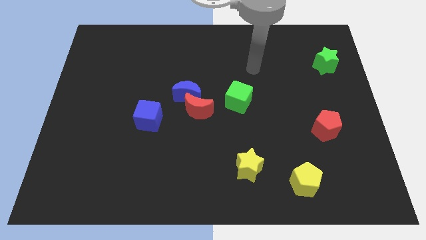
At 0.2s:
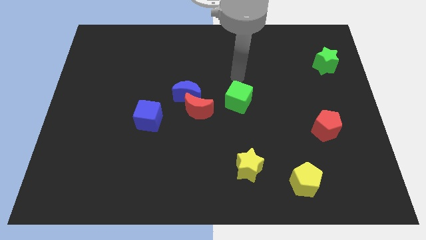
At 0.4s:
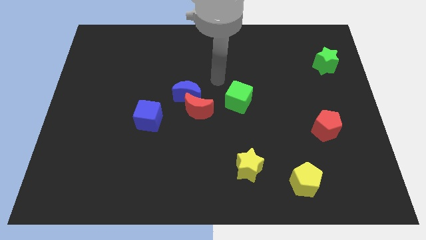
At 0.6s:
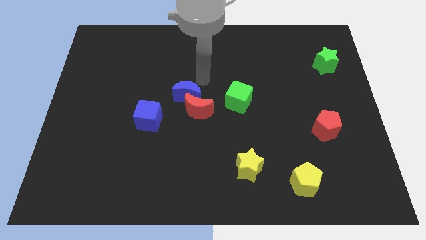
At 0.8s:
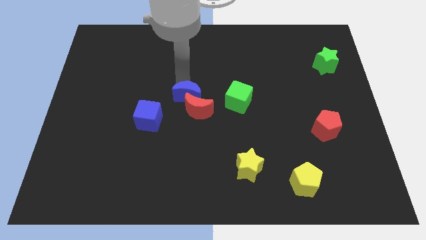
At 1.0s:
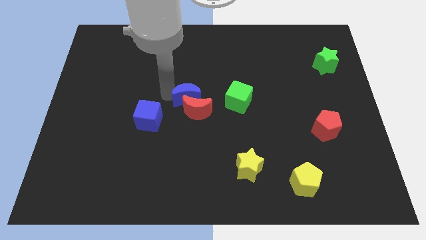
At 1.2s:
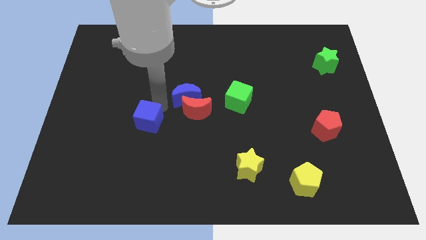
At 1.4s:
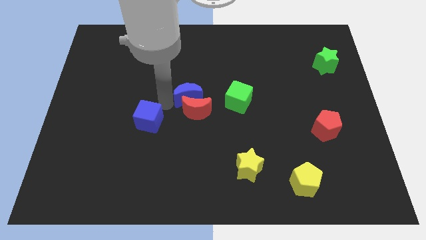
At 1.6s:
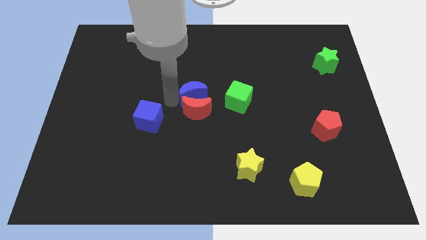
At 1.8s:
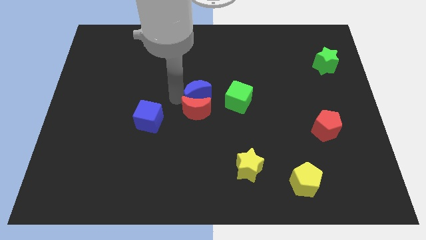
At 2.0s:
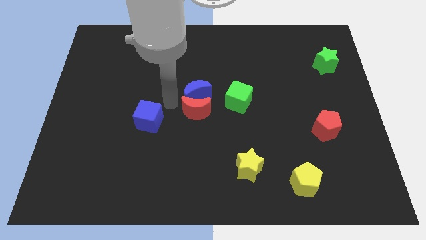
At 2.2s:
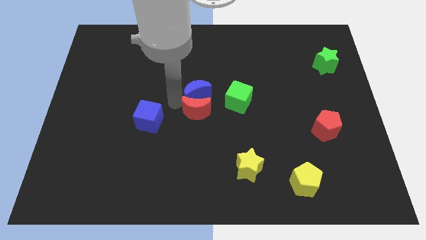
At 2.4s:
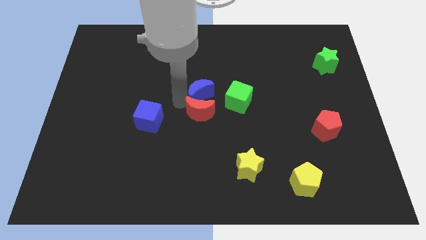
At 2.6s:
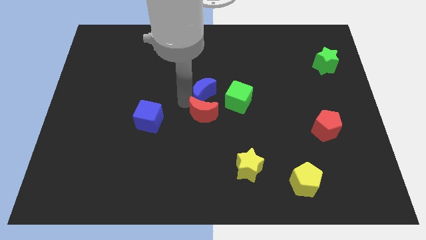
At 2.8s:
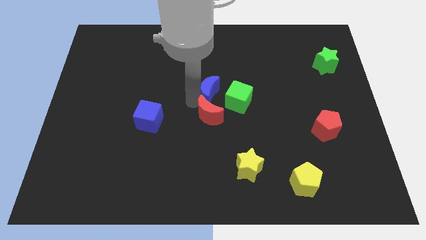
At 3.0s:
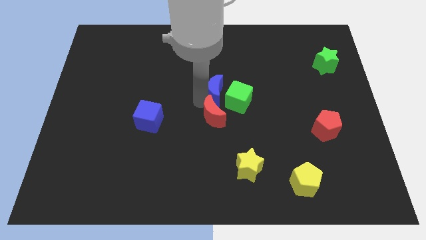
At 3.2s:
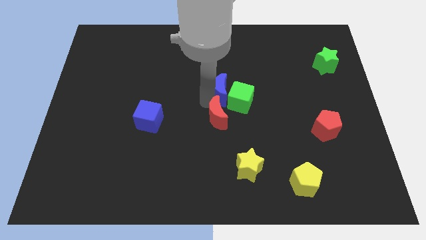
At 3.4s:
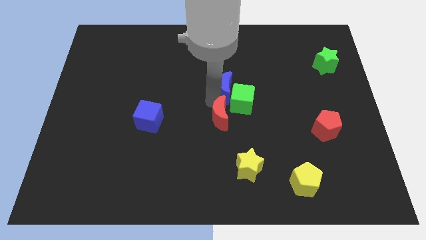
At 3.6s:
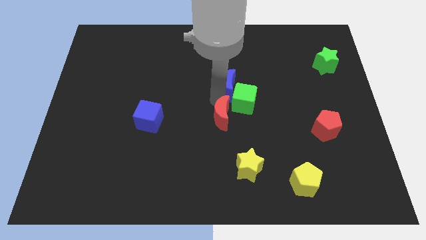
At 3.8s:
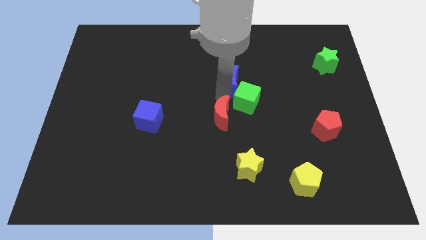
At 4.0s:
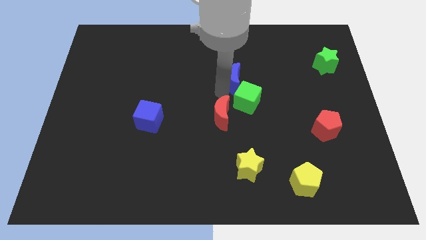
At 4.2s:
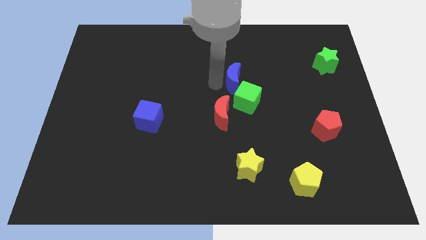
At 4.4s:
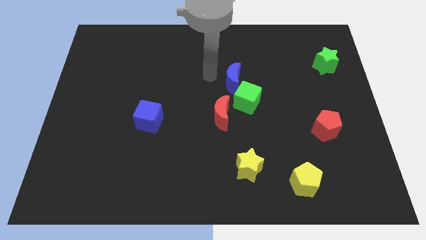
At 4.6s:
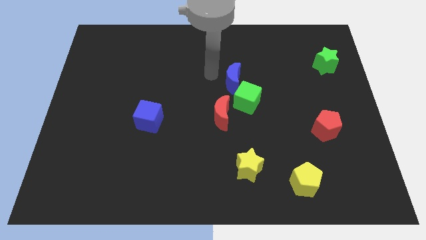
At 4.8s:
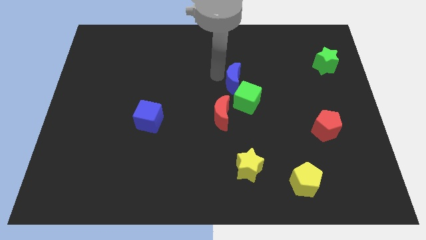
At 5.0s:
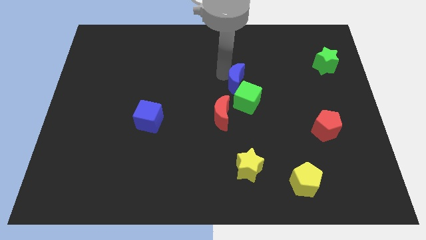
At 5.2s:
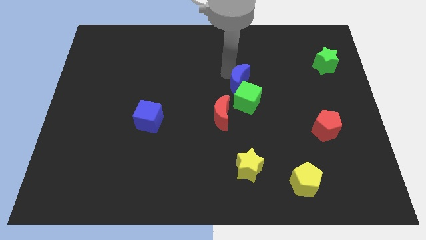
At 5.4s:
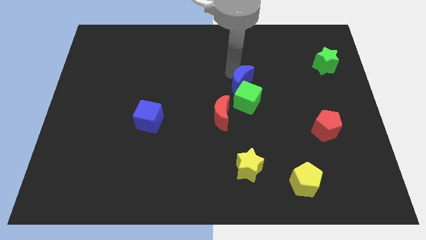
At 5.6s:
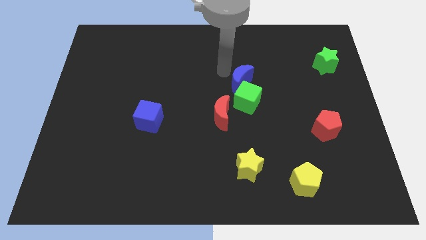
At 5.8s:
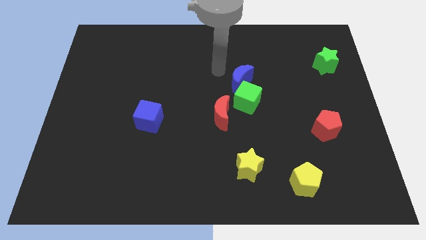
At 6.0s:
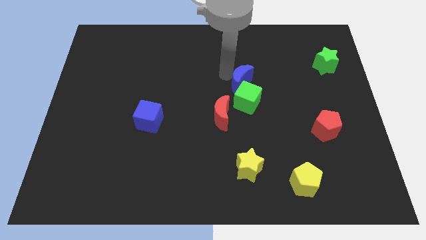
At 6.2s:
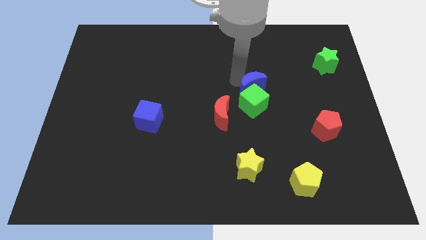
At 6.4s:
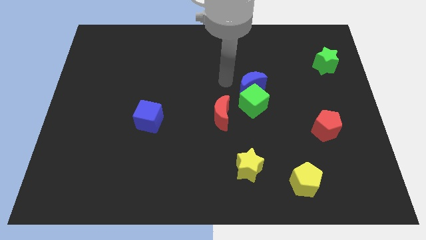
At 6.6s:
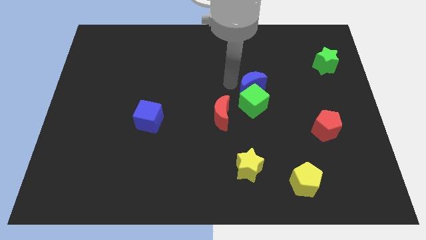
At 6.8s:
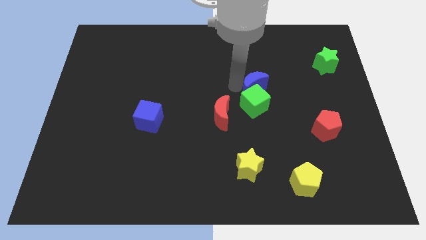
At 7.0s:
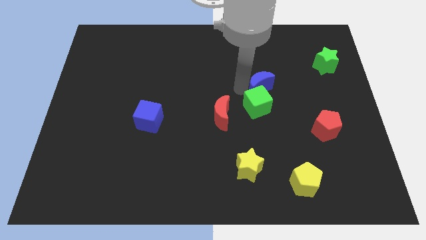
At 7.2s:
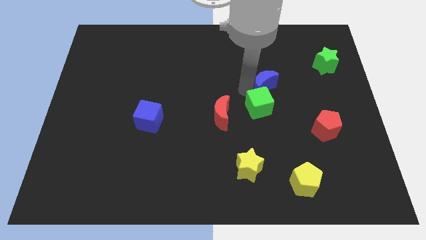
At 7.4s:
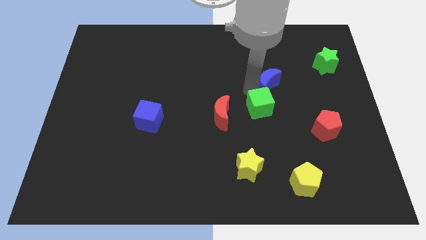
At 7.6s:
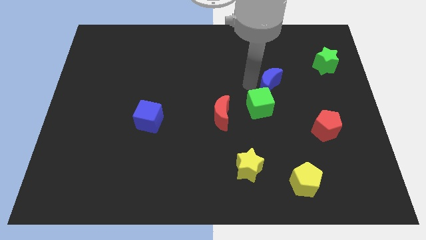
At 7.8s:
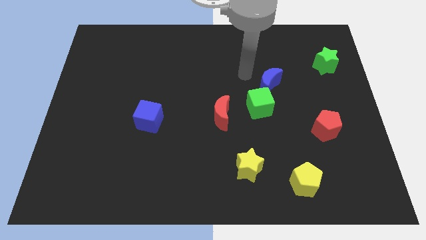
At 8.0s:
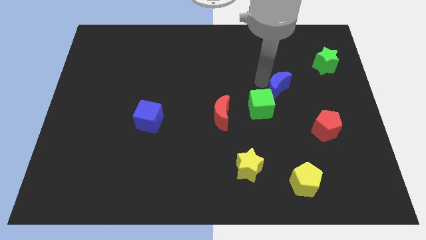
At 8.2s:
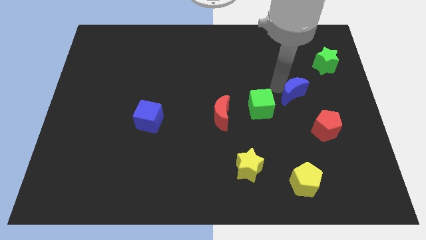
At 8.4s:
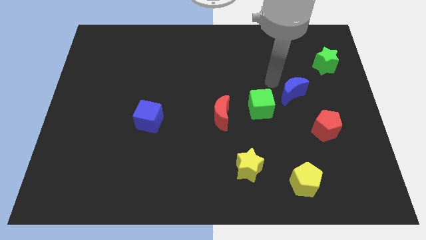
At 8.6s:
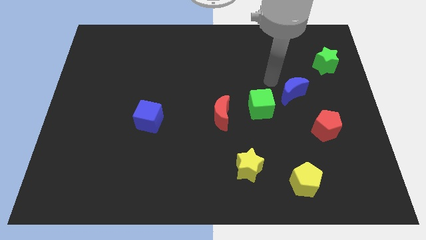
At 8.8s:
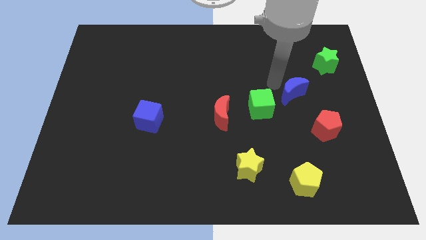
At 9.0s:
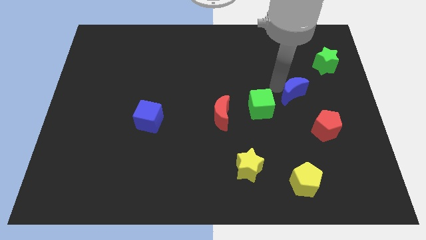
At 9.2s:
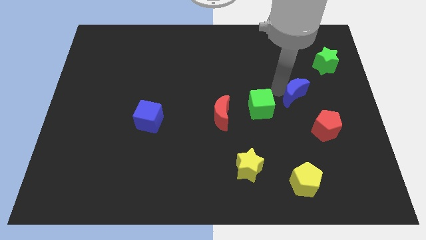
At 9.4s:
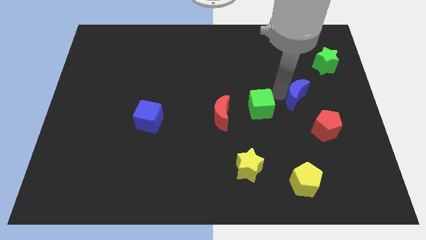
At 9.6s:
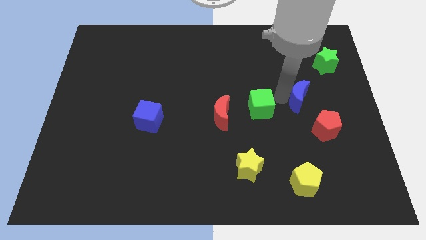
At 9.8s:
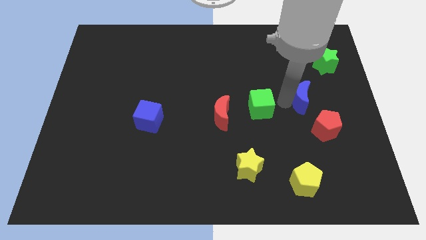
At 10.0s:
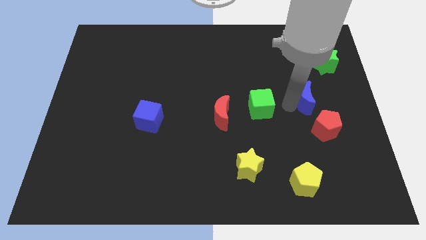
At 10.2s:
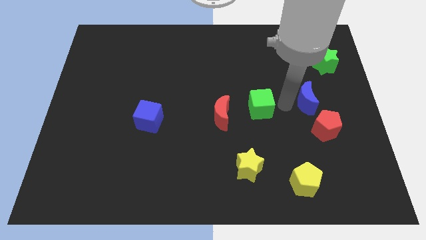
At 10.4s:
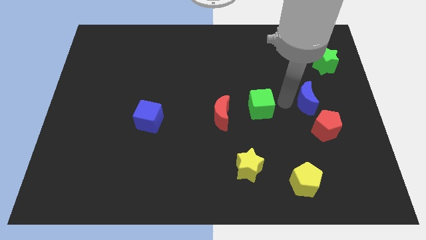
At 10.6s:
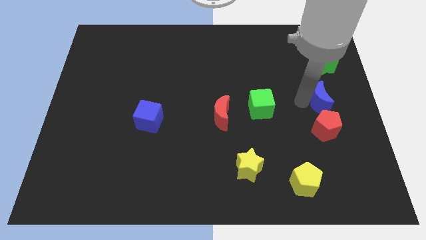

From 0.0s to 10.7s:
move the blue moon to the right side

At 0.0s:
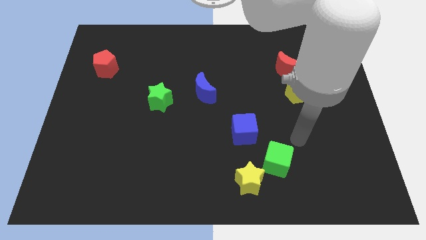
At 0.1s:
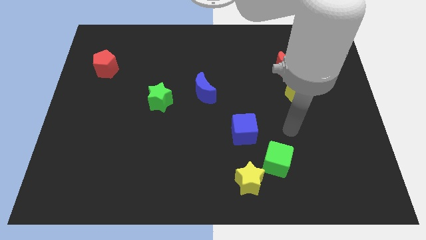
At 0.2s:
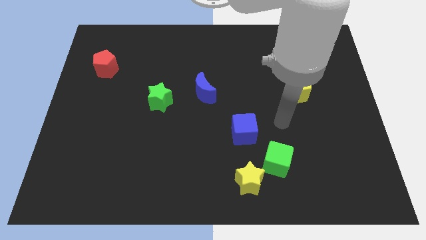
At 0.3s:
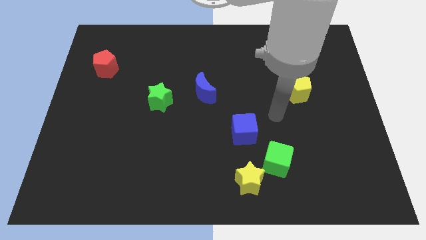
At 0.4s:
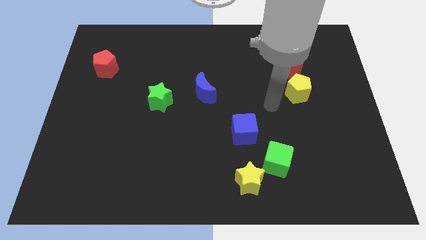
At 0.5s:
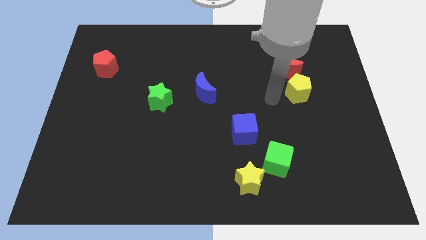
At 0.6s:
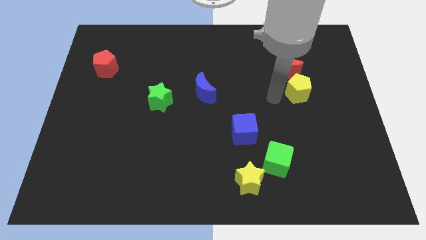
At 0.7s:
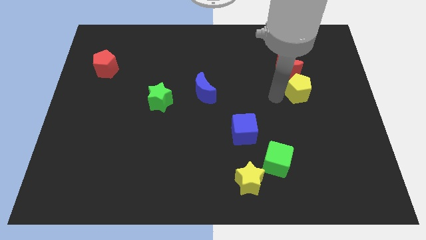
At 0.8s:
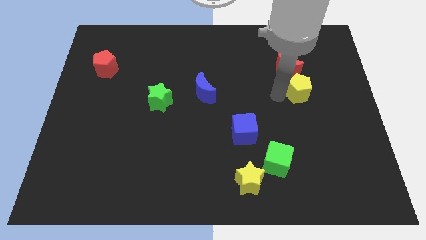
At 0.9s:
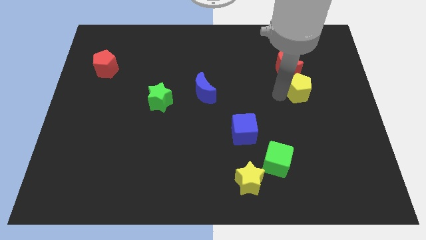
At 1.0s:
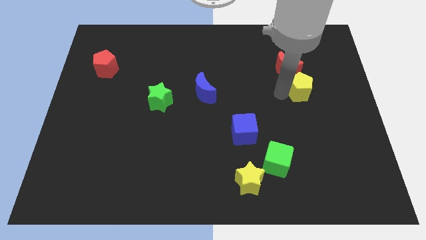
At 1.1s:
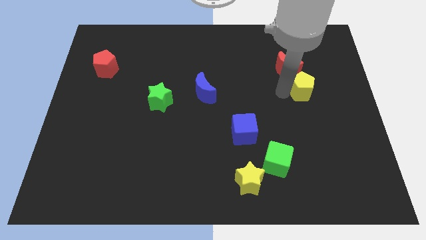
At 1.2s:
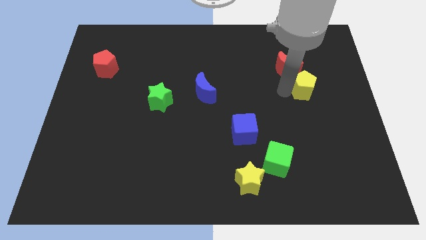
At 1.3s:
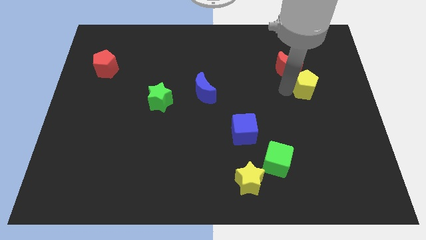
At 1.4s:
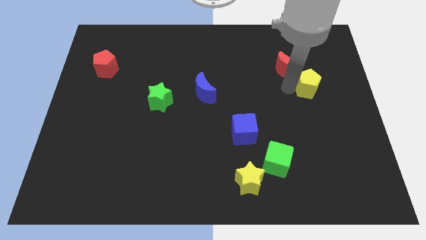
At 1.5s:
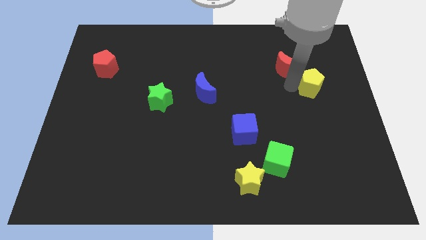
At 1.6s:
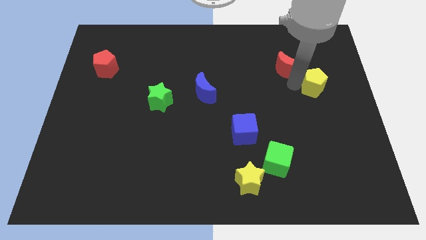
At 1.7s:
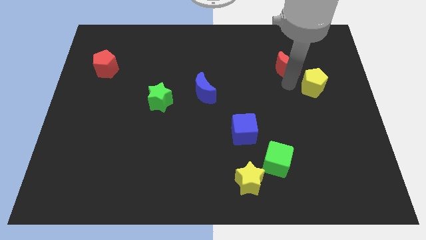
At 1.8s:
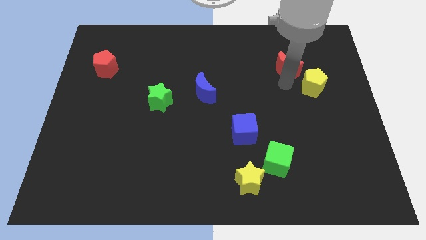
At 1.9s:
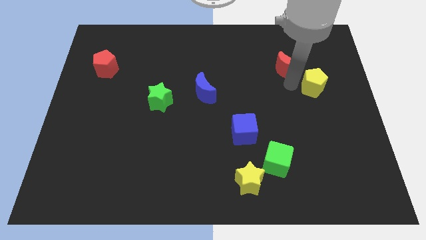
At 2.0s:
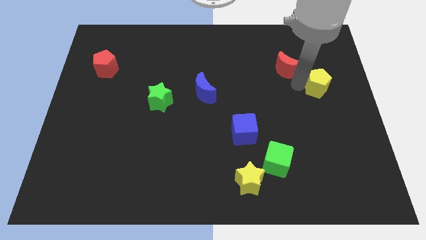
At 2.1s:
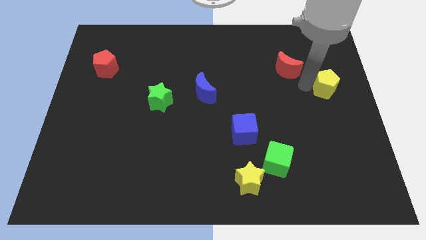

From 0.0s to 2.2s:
move the yellow pentagon to the right side
